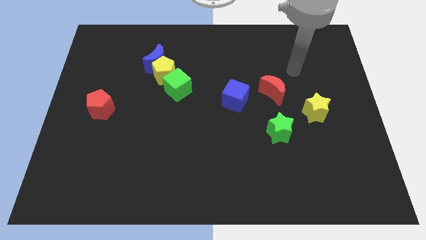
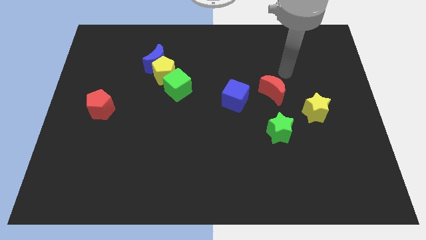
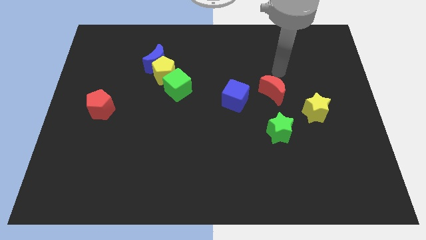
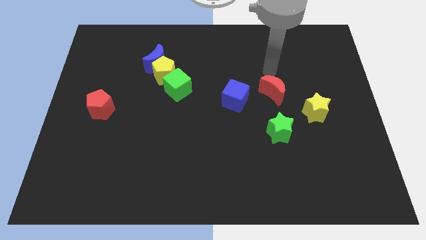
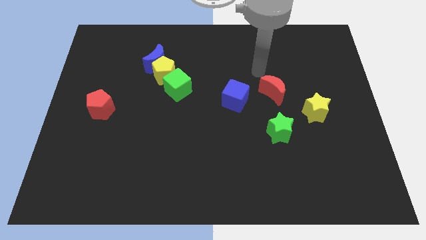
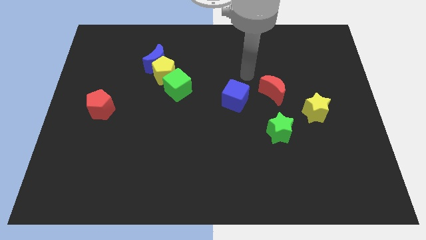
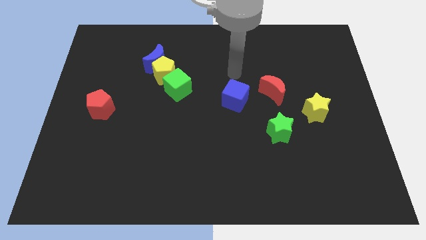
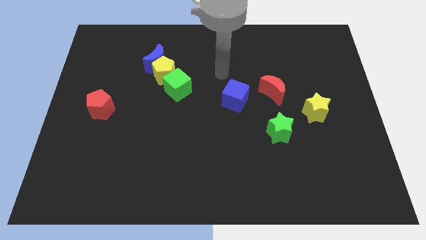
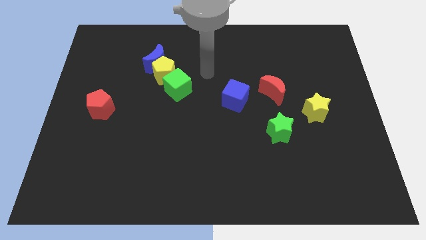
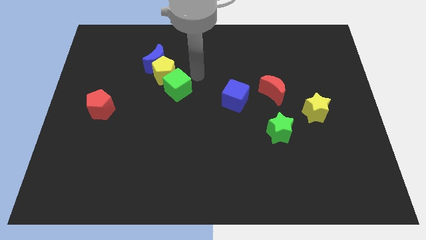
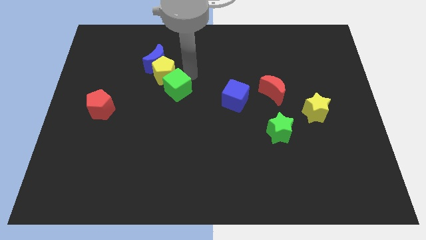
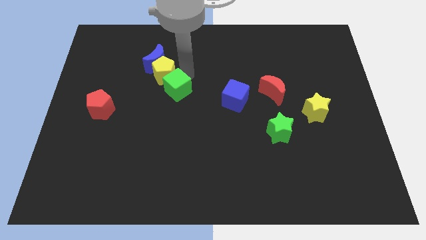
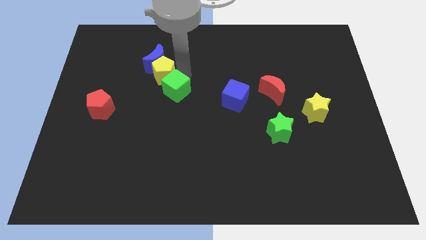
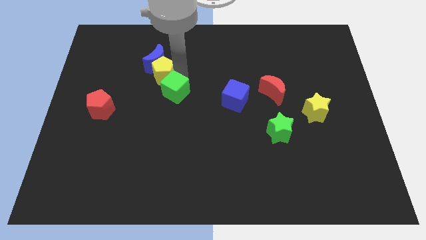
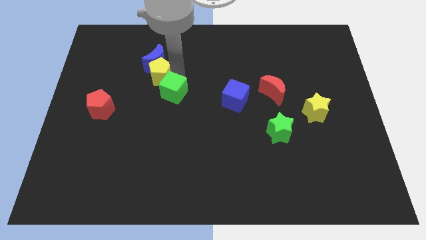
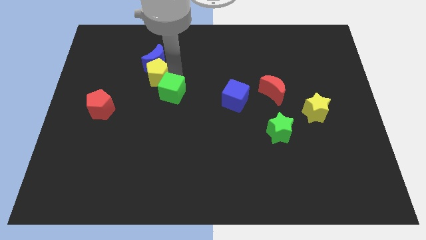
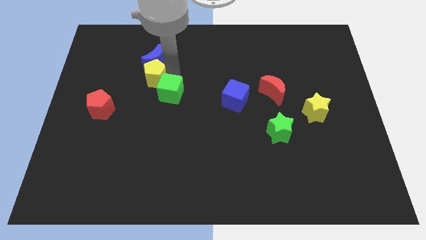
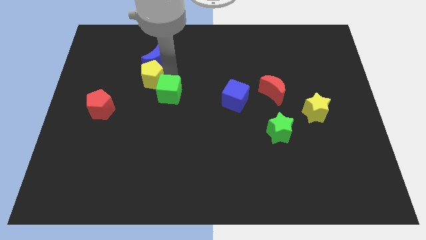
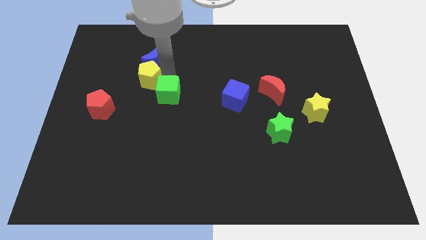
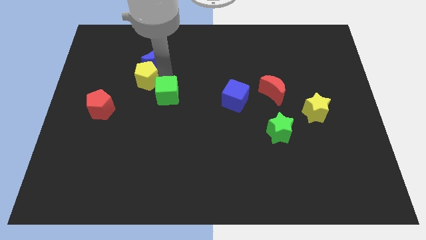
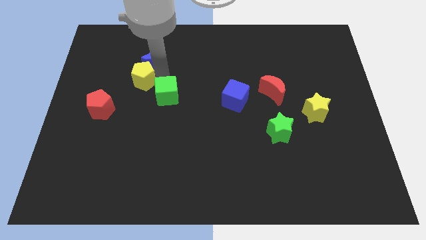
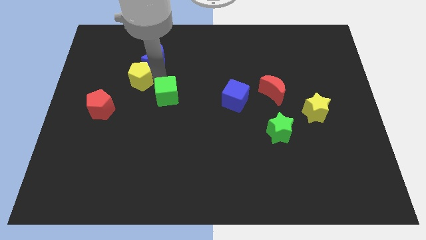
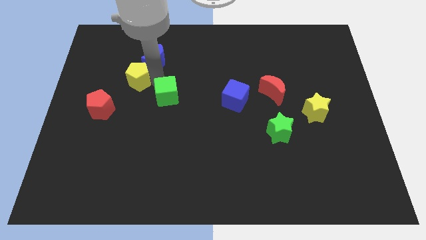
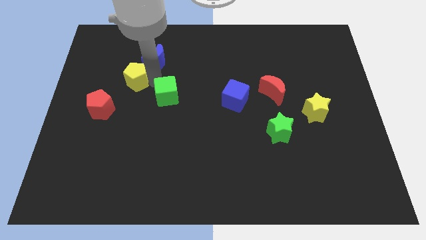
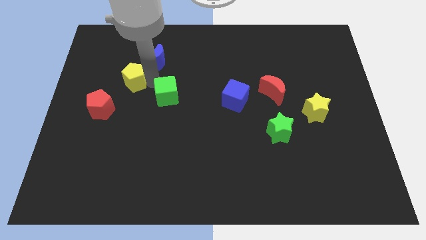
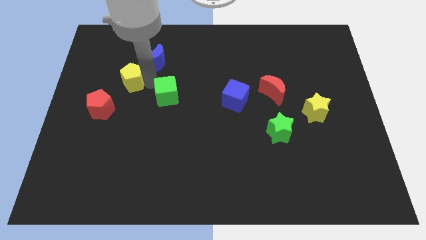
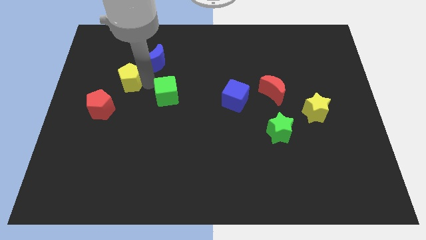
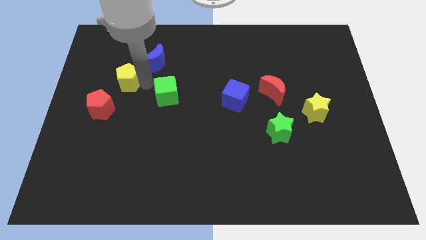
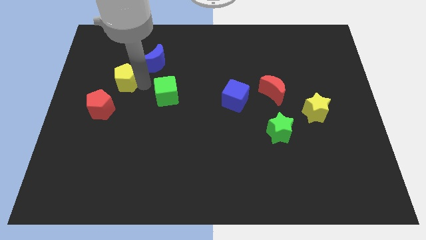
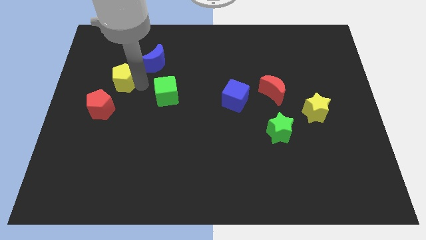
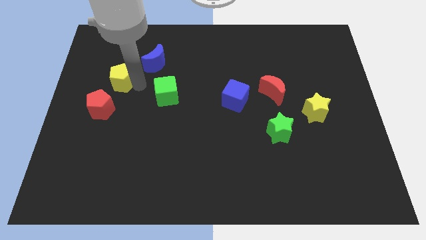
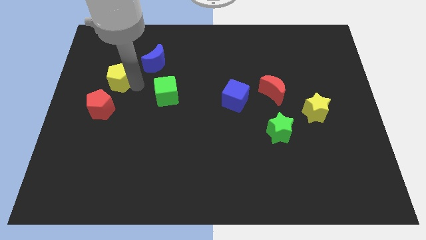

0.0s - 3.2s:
separate the yellow pentagon from the blue moon and green cube

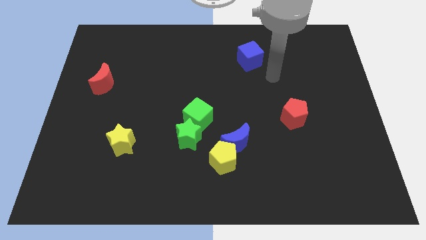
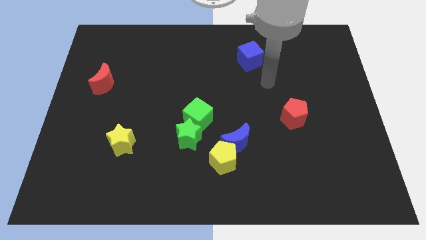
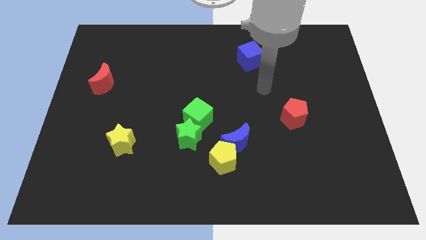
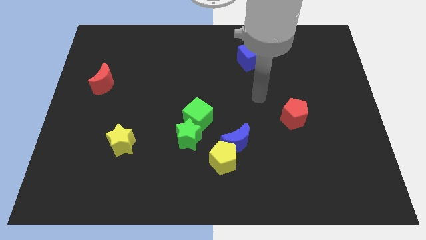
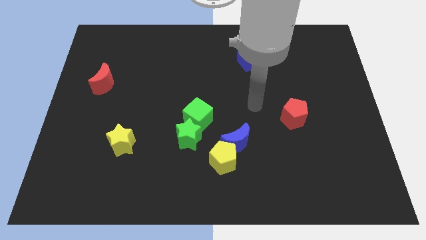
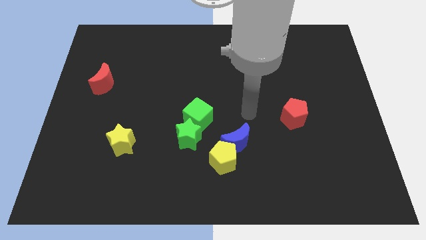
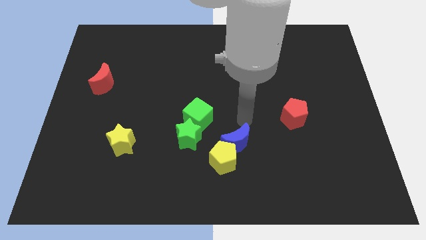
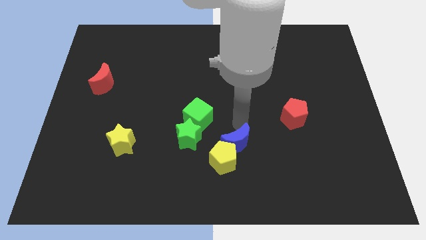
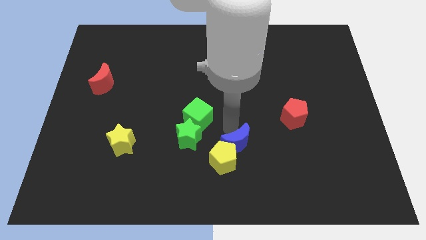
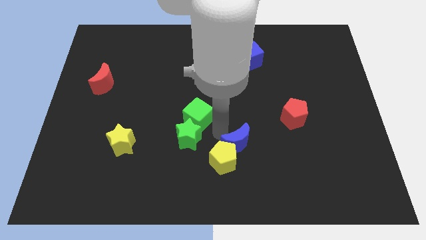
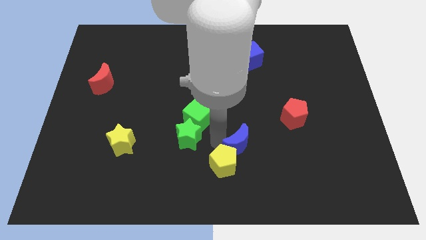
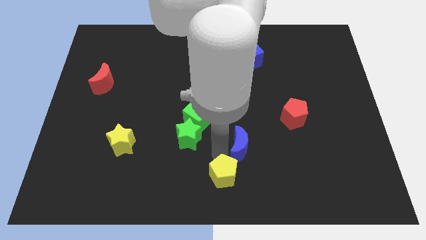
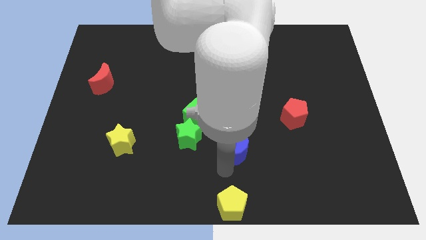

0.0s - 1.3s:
move the blue moon away from the yellow pentagon

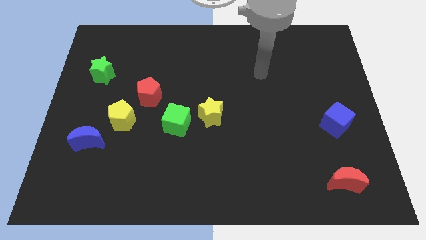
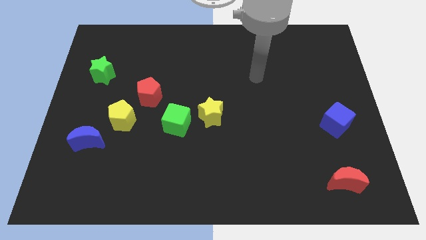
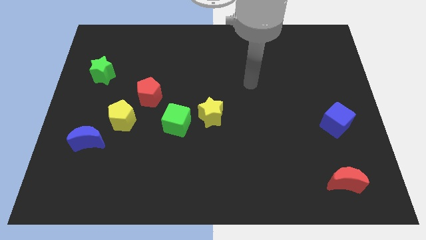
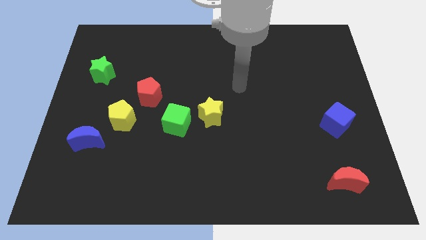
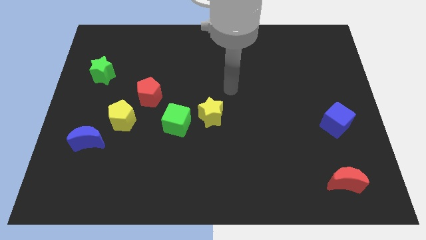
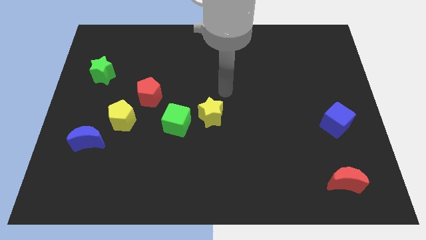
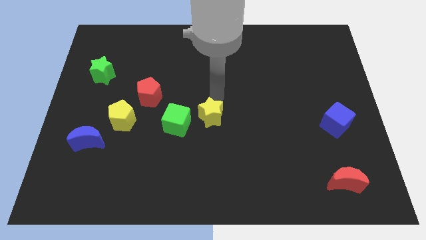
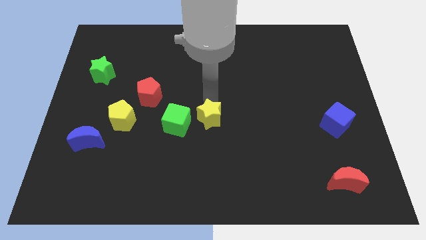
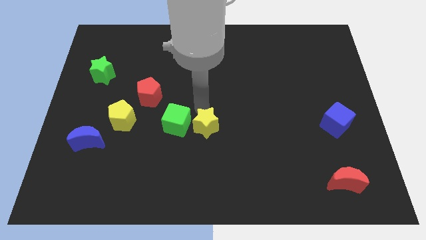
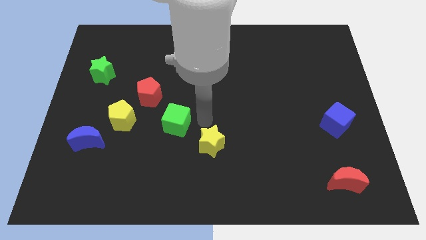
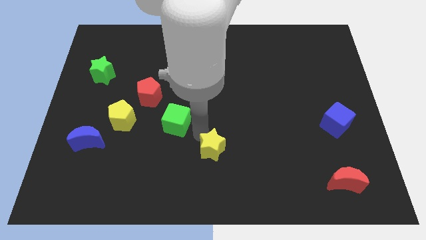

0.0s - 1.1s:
move the green cube away from the yellow star

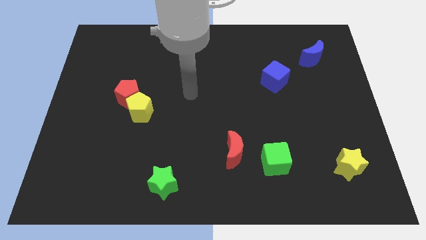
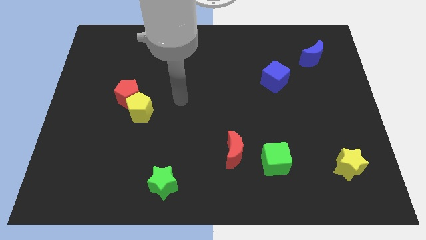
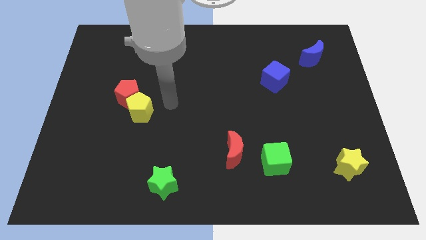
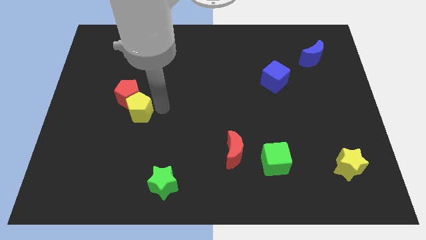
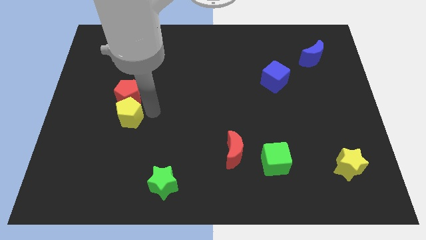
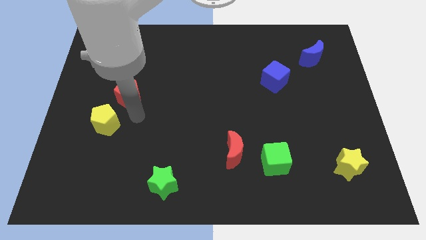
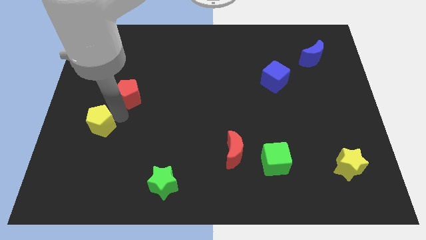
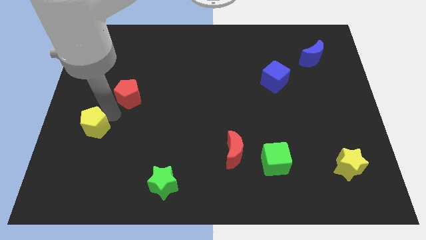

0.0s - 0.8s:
move the red pentagon away from the yellow pentagon

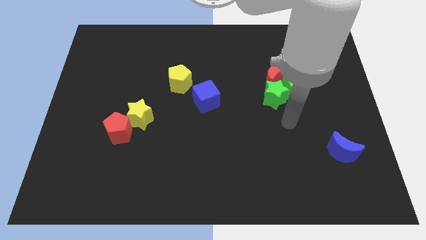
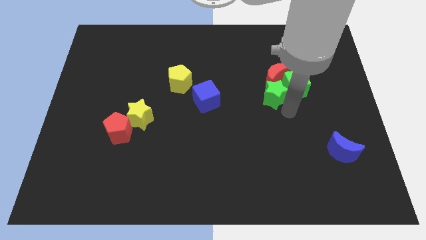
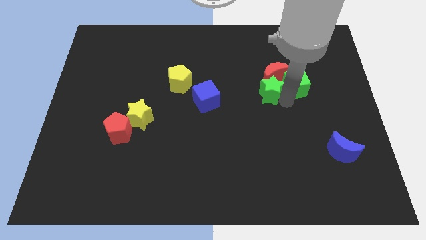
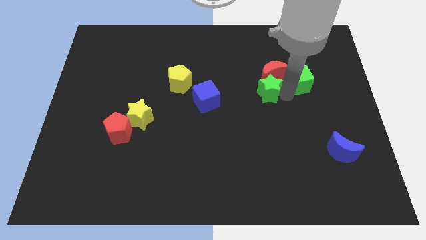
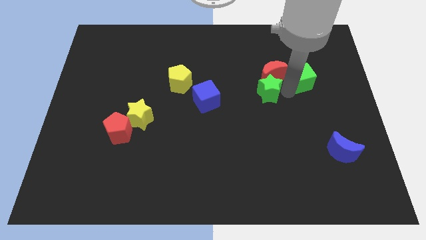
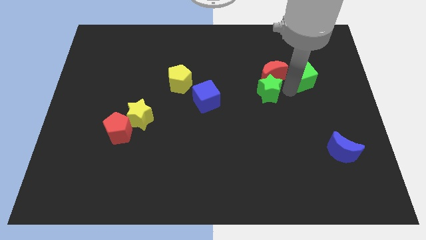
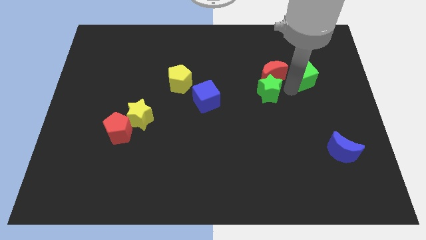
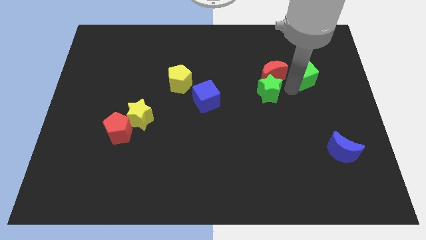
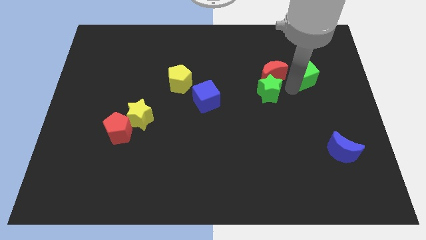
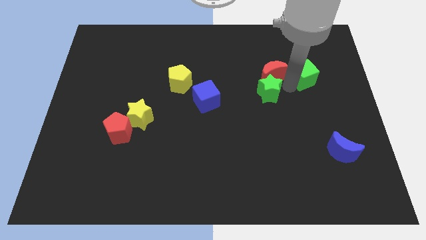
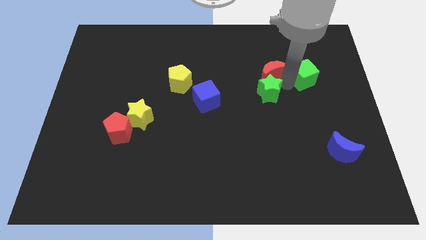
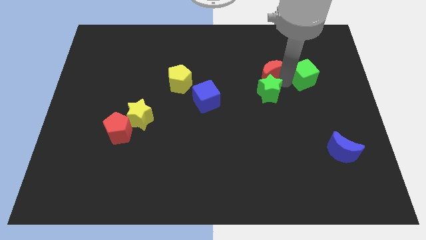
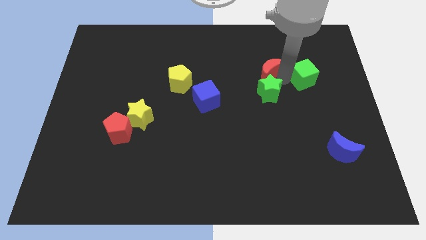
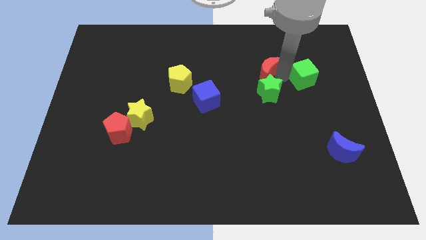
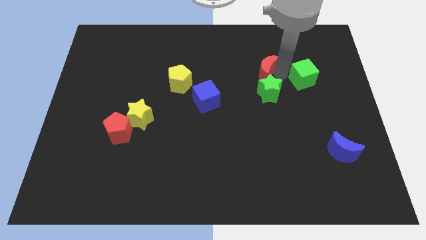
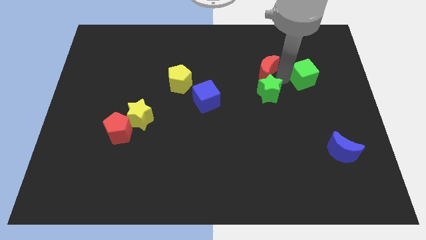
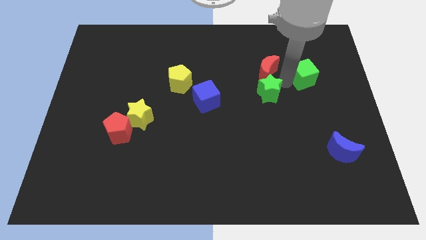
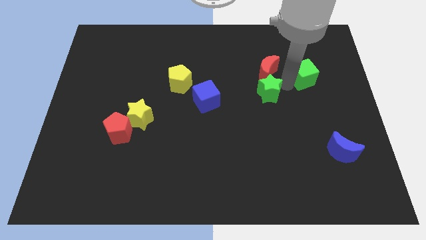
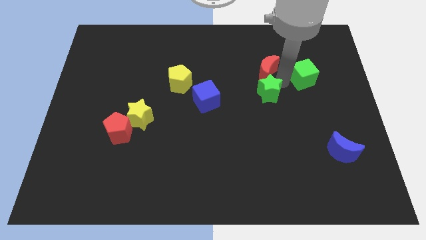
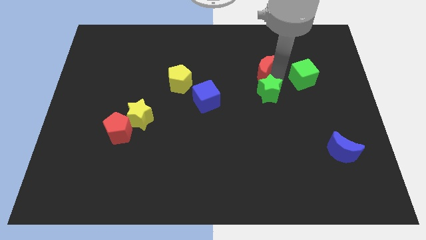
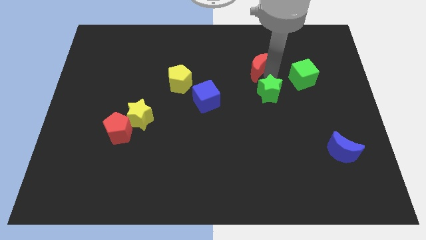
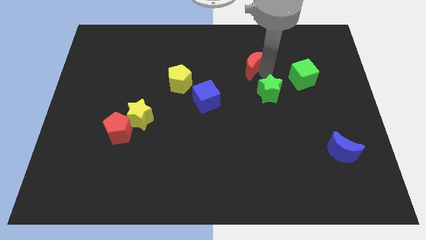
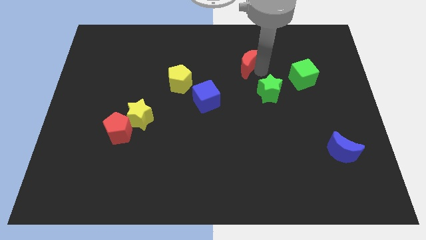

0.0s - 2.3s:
pull the red moon apart from the green cube and green star

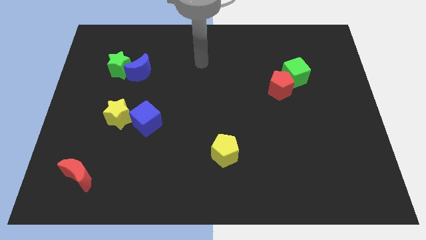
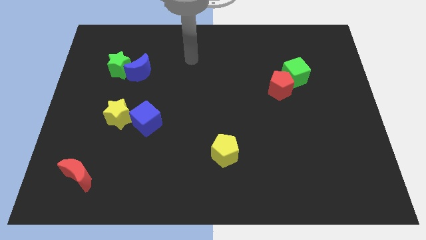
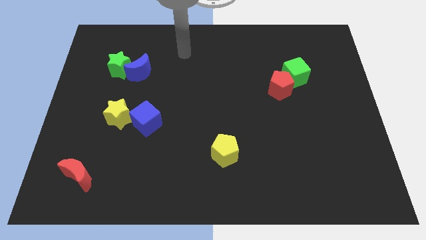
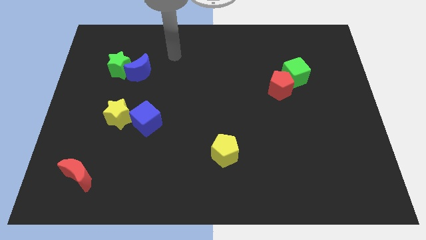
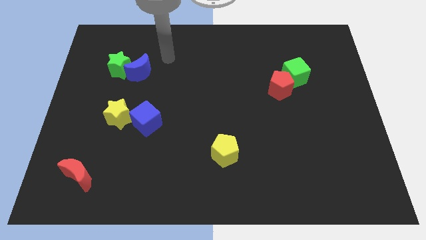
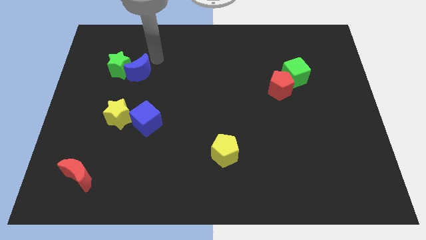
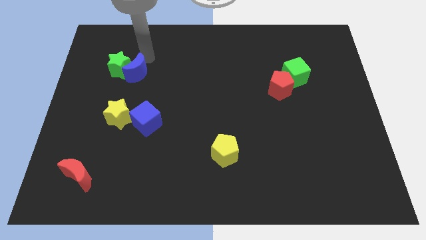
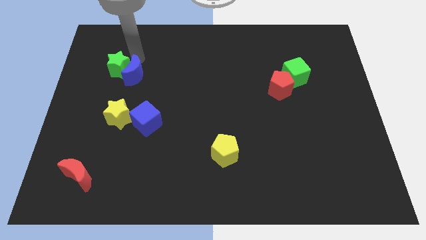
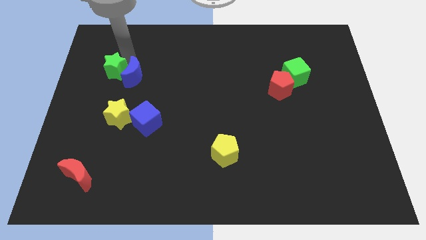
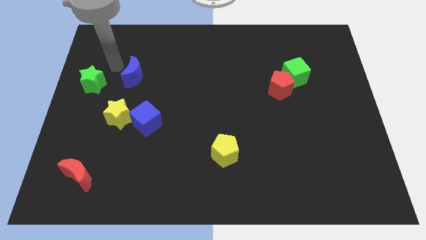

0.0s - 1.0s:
move the blue moon away from the green star
